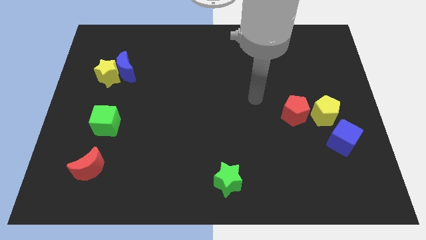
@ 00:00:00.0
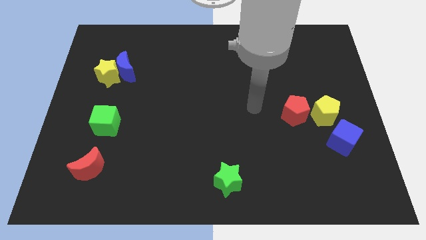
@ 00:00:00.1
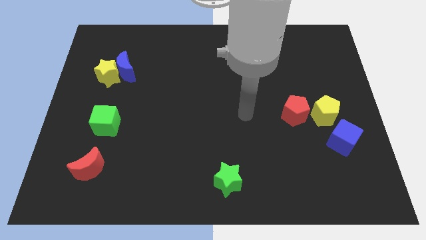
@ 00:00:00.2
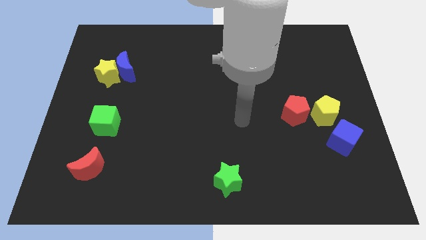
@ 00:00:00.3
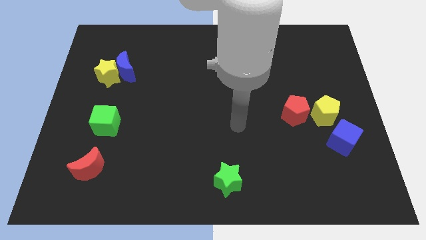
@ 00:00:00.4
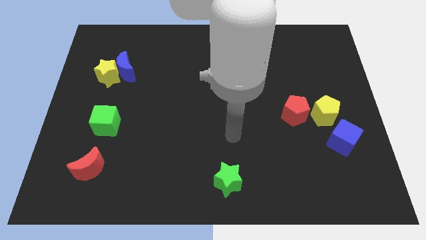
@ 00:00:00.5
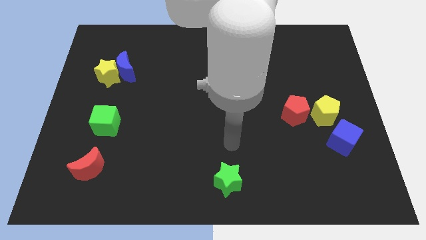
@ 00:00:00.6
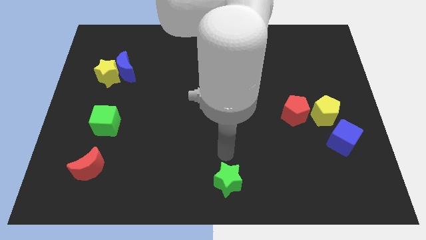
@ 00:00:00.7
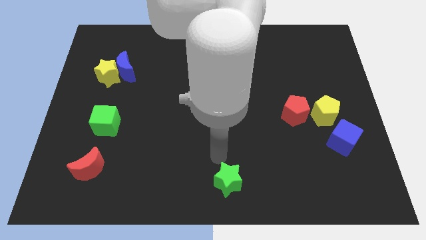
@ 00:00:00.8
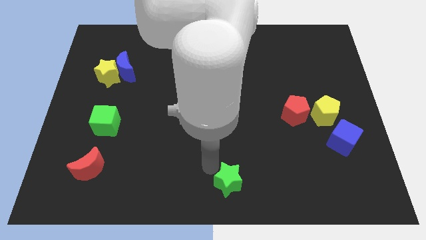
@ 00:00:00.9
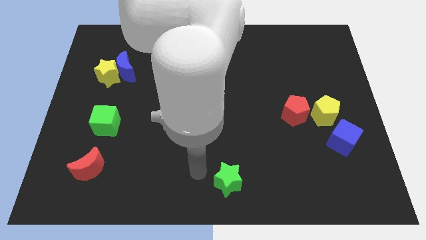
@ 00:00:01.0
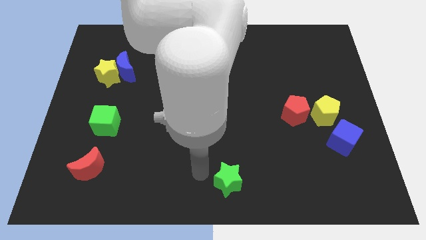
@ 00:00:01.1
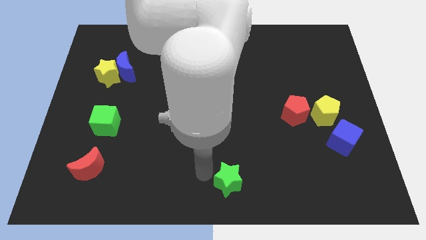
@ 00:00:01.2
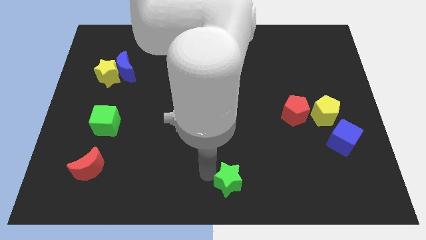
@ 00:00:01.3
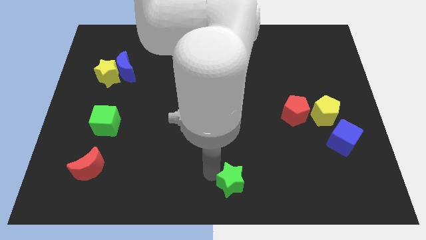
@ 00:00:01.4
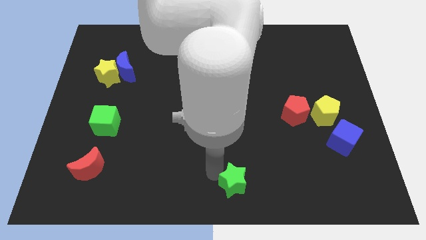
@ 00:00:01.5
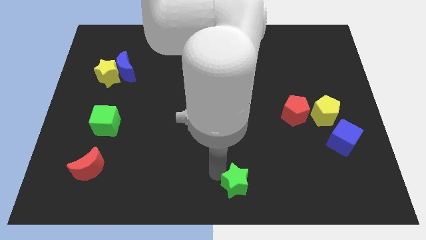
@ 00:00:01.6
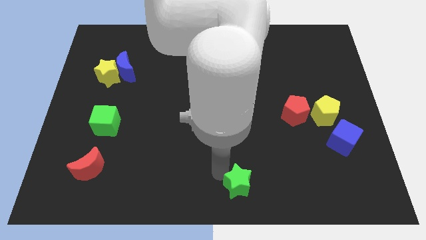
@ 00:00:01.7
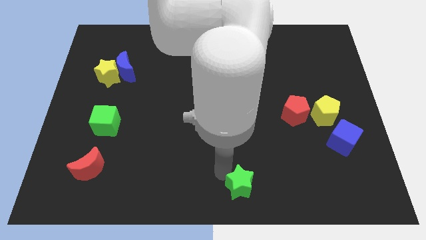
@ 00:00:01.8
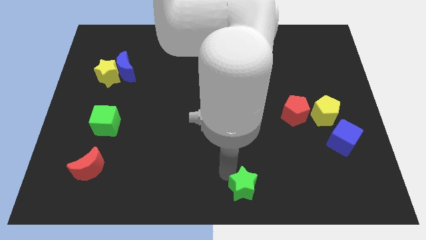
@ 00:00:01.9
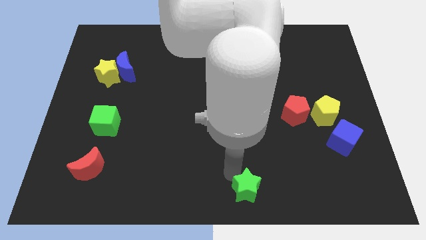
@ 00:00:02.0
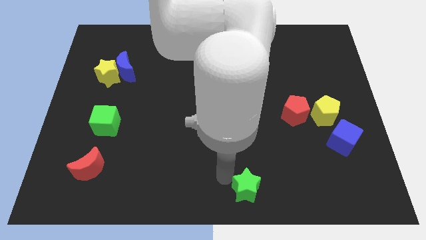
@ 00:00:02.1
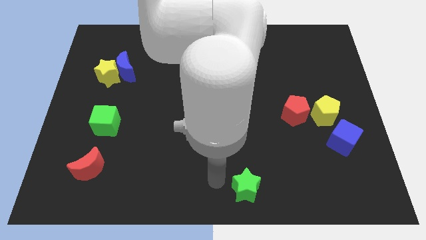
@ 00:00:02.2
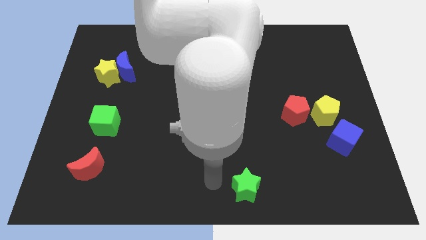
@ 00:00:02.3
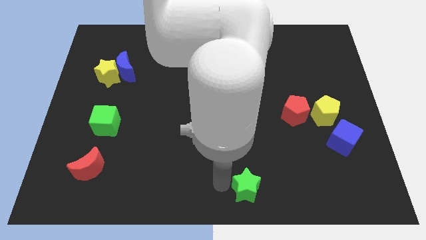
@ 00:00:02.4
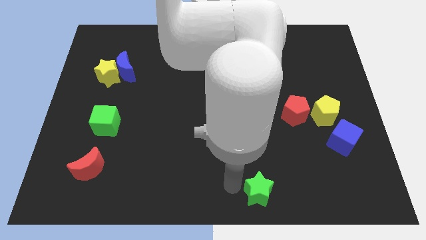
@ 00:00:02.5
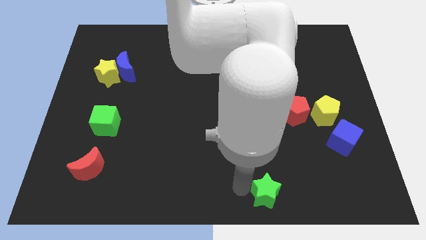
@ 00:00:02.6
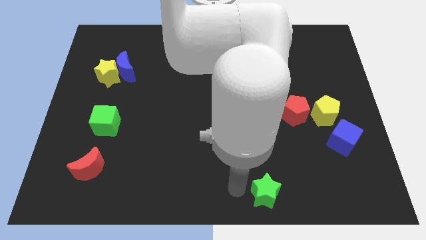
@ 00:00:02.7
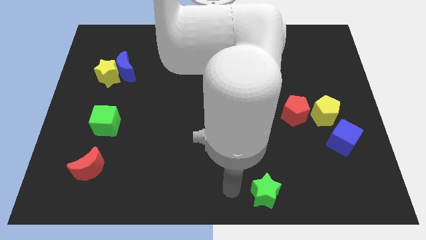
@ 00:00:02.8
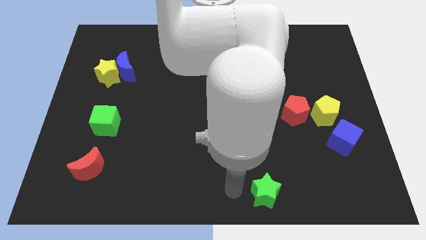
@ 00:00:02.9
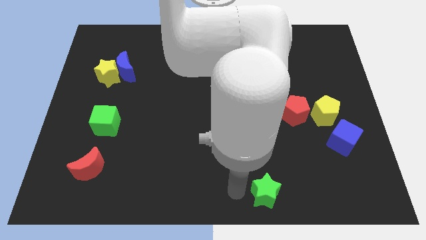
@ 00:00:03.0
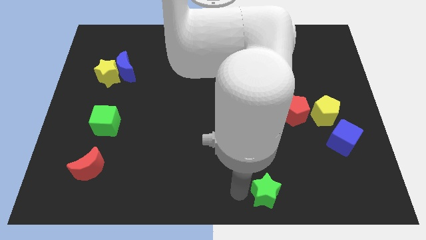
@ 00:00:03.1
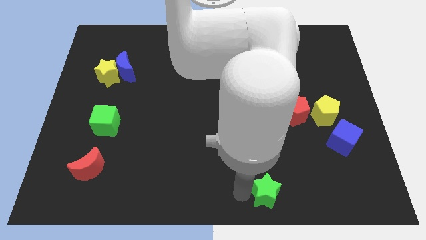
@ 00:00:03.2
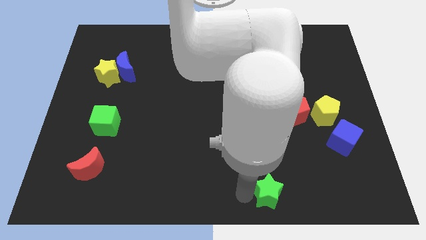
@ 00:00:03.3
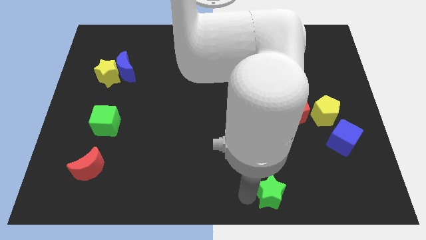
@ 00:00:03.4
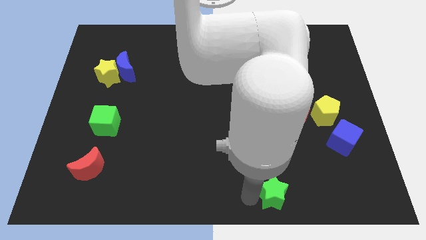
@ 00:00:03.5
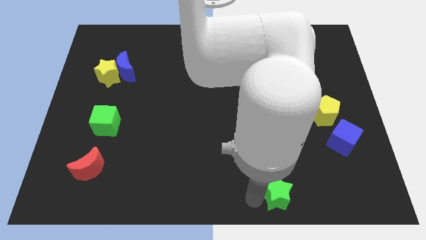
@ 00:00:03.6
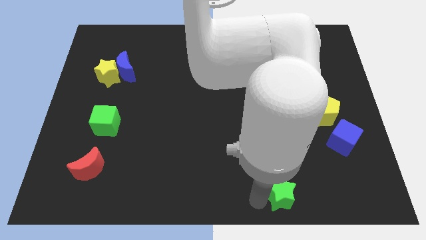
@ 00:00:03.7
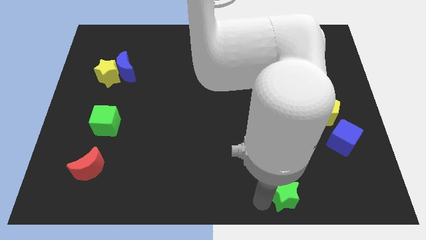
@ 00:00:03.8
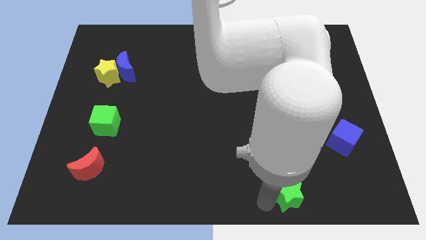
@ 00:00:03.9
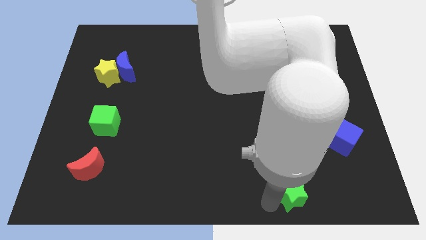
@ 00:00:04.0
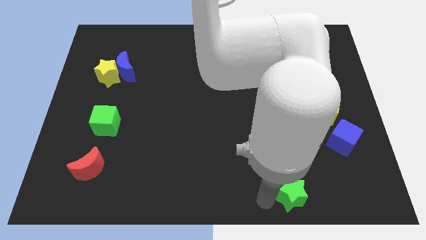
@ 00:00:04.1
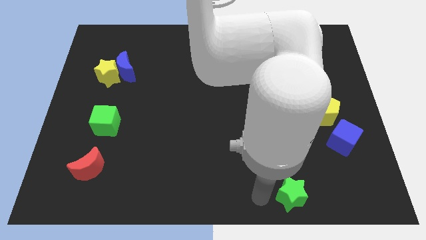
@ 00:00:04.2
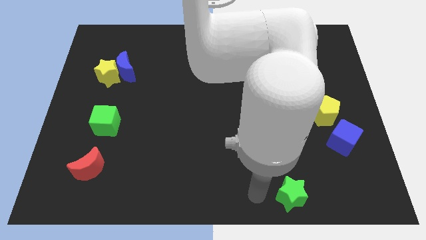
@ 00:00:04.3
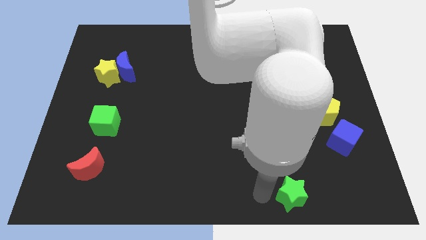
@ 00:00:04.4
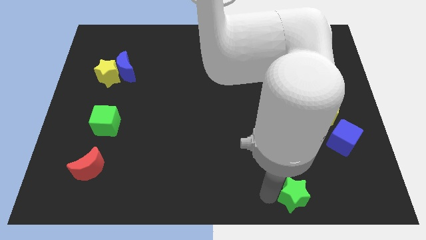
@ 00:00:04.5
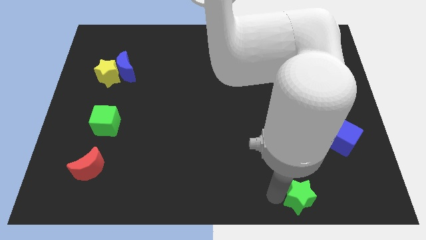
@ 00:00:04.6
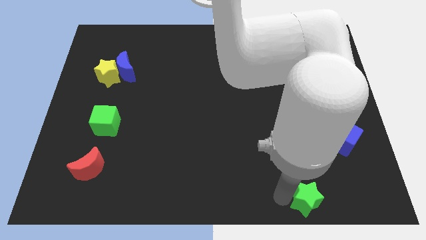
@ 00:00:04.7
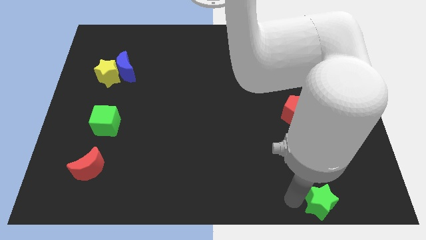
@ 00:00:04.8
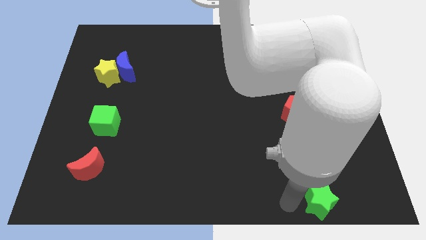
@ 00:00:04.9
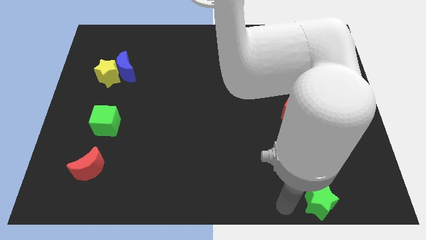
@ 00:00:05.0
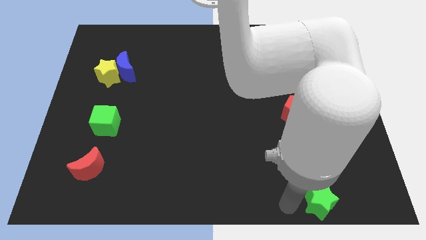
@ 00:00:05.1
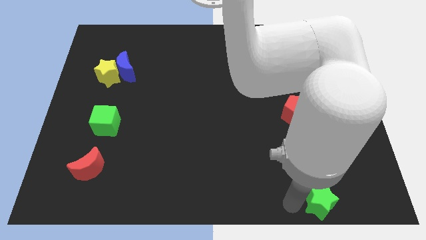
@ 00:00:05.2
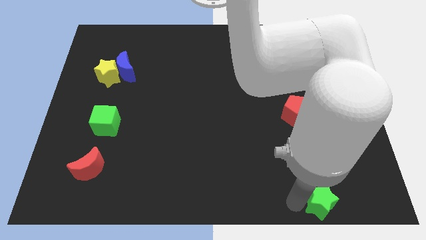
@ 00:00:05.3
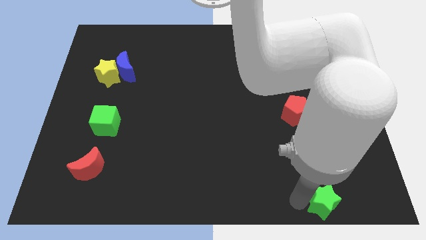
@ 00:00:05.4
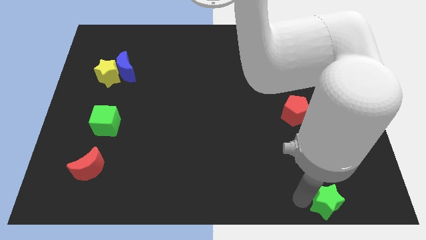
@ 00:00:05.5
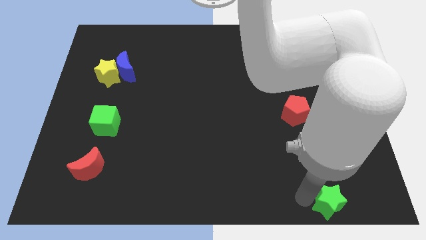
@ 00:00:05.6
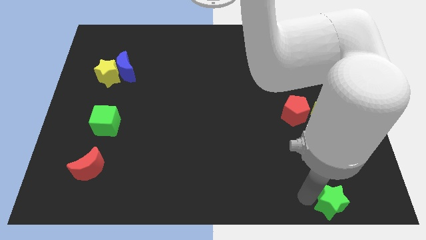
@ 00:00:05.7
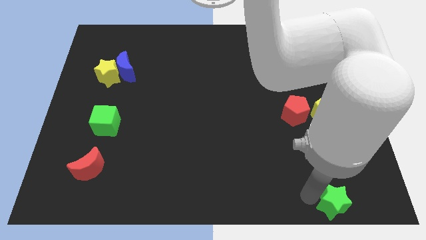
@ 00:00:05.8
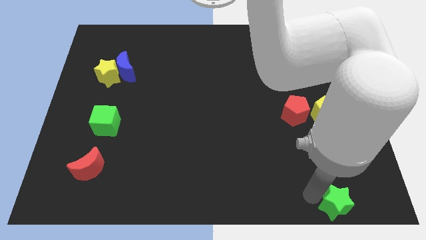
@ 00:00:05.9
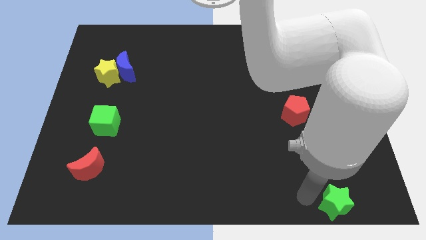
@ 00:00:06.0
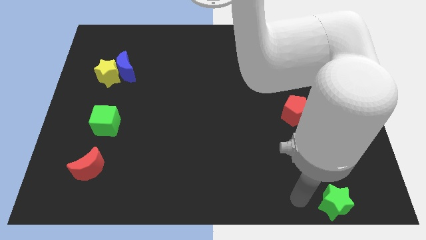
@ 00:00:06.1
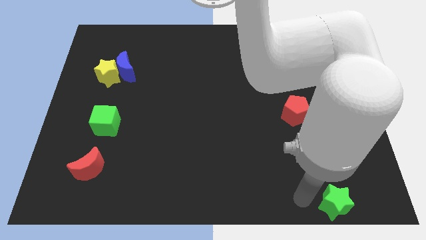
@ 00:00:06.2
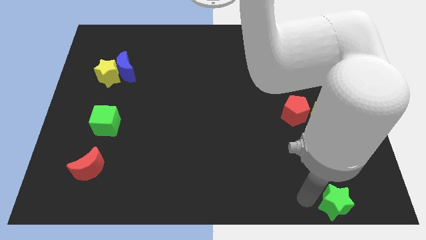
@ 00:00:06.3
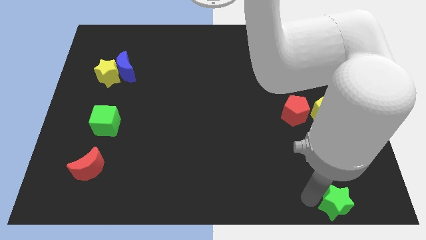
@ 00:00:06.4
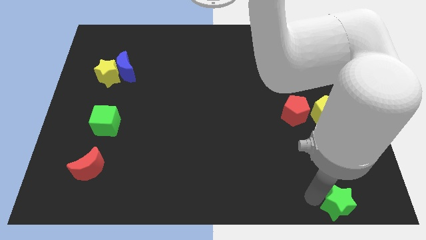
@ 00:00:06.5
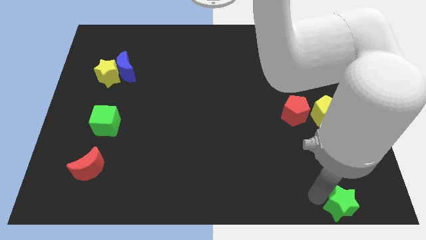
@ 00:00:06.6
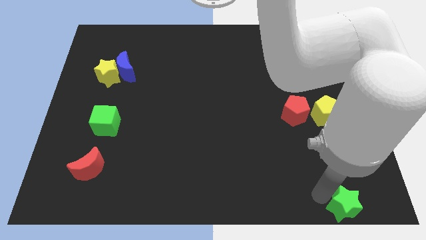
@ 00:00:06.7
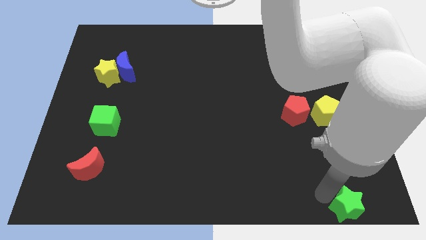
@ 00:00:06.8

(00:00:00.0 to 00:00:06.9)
put the green star to the bottom right of the board
